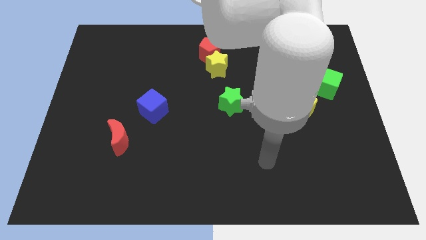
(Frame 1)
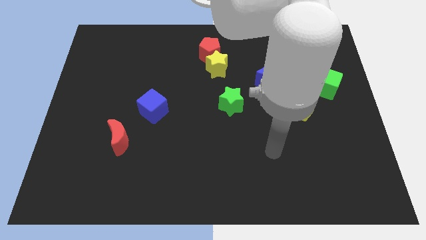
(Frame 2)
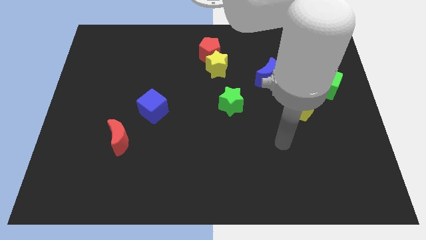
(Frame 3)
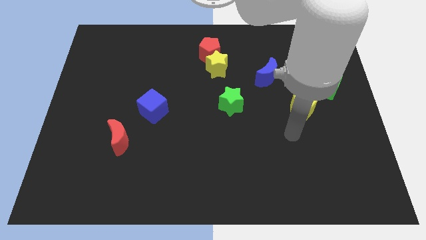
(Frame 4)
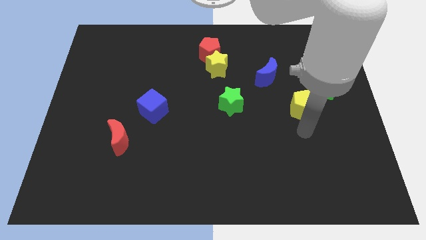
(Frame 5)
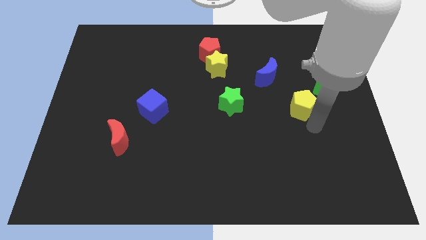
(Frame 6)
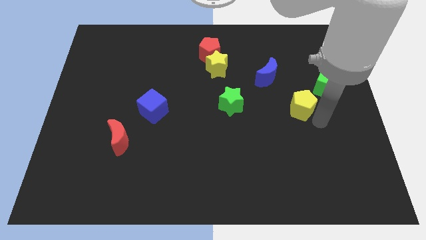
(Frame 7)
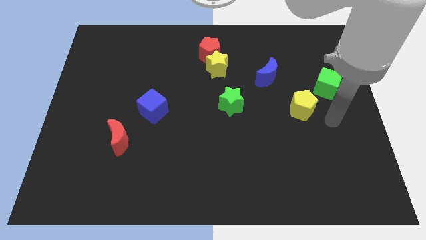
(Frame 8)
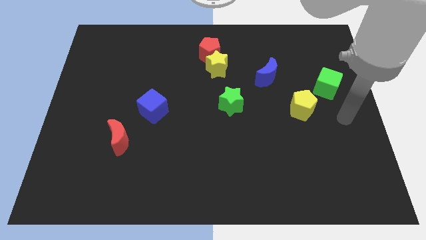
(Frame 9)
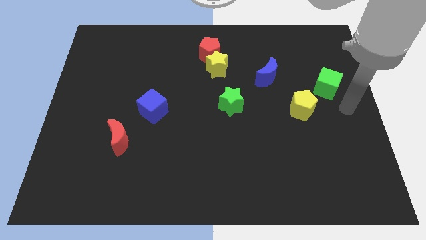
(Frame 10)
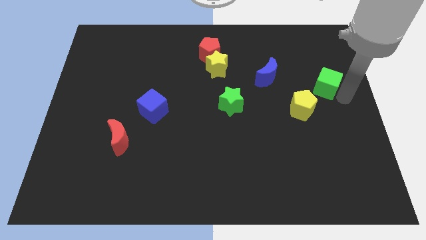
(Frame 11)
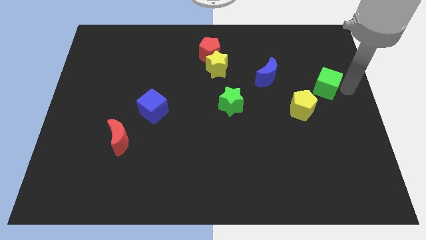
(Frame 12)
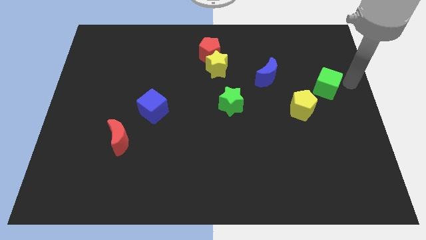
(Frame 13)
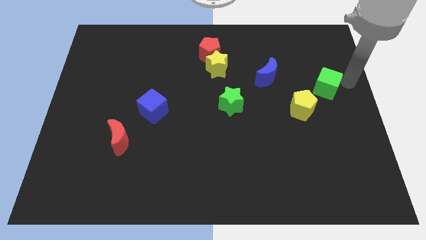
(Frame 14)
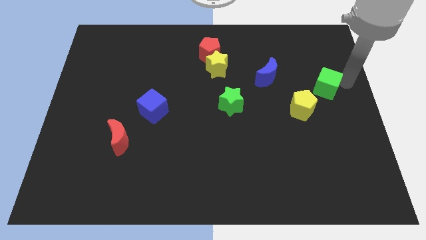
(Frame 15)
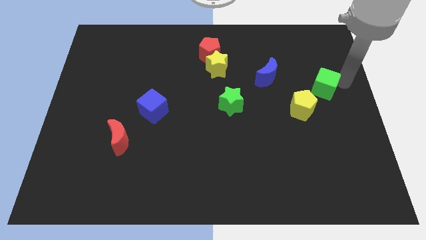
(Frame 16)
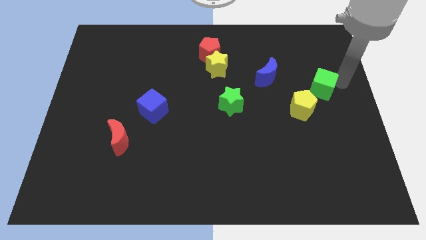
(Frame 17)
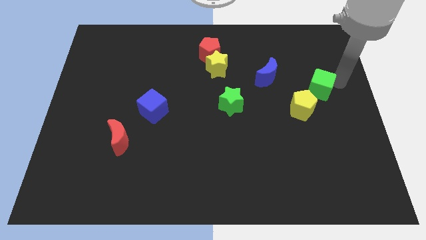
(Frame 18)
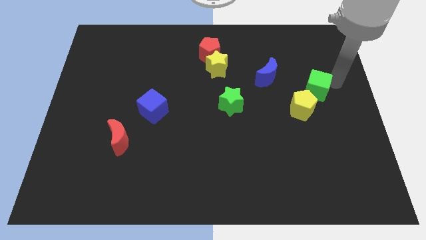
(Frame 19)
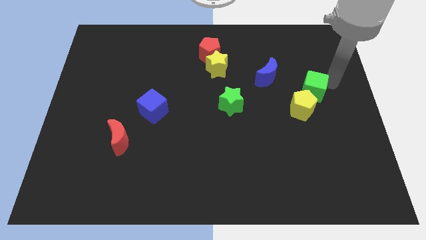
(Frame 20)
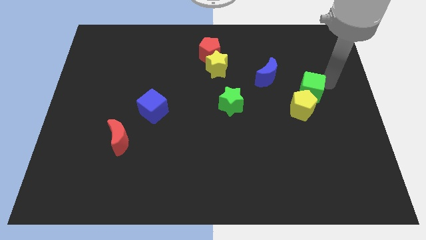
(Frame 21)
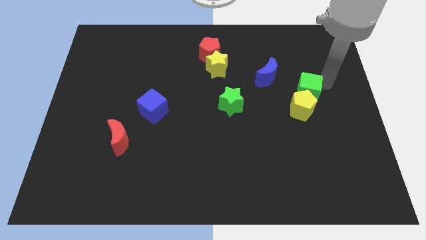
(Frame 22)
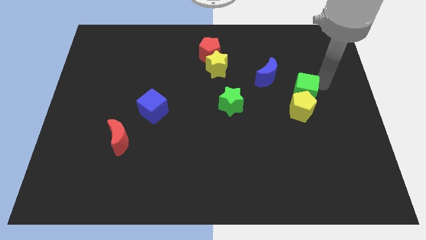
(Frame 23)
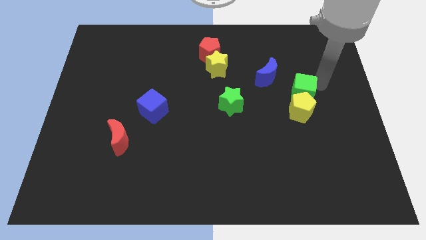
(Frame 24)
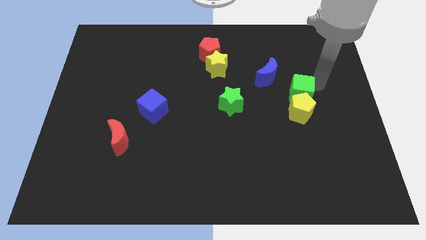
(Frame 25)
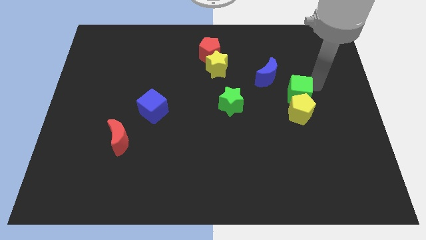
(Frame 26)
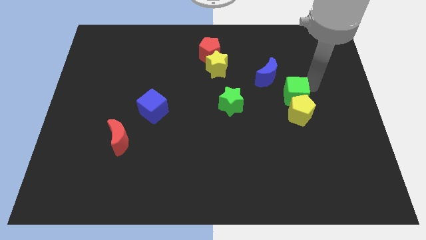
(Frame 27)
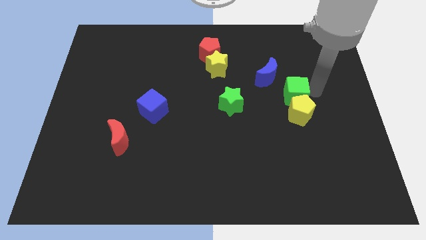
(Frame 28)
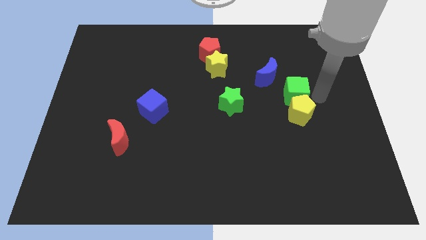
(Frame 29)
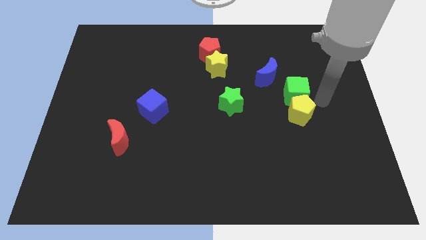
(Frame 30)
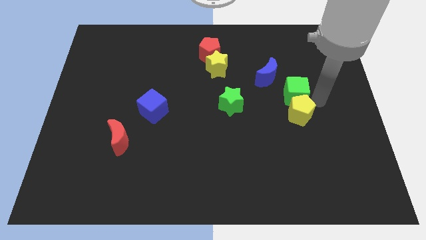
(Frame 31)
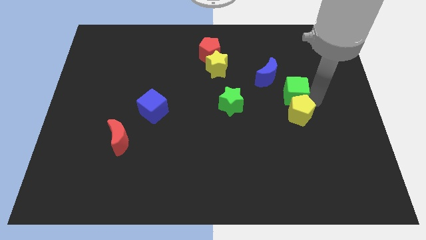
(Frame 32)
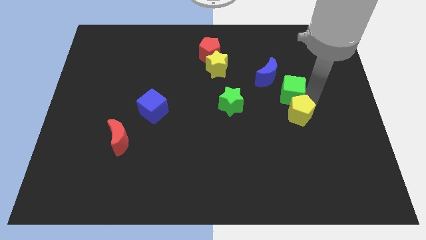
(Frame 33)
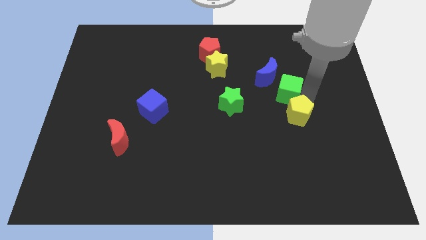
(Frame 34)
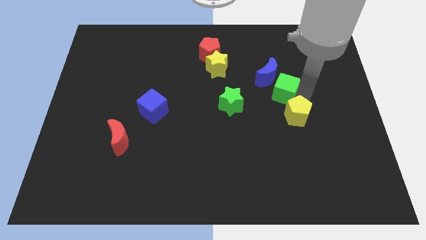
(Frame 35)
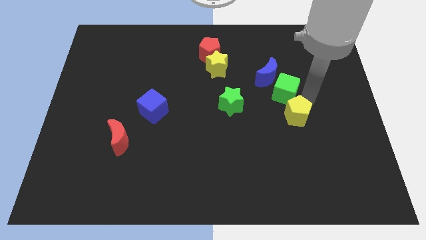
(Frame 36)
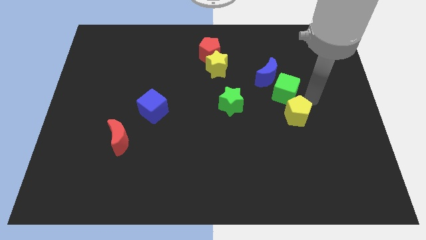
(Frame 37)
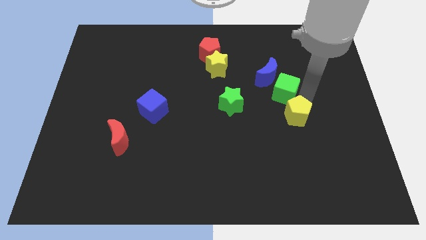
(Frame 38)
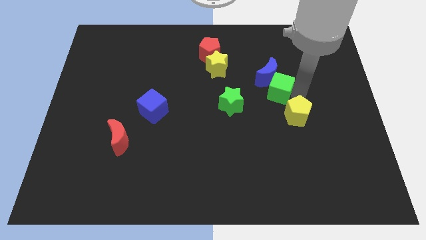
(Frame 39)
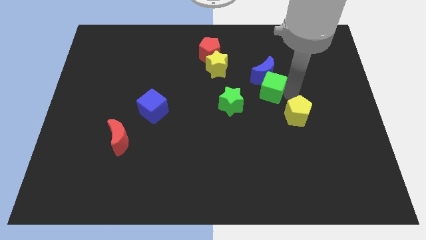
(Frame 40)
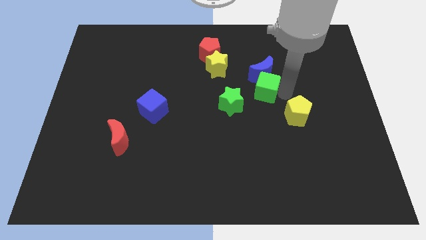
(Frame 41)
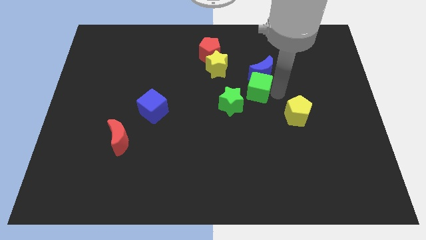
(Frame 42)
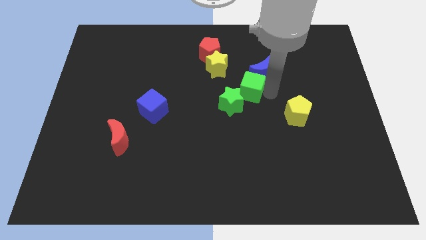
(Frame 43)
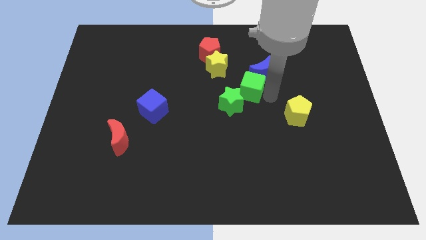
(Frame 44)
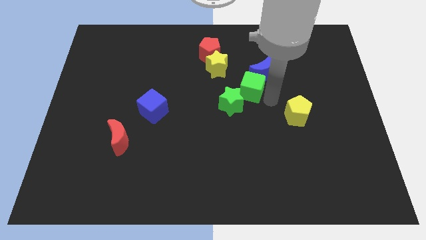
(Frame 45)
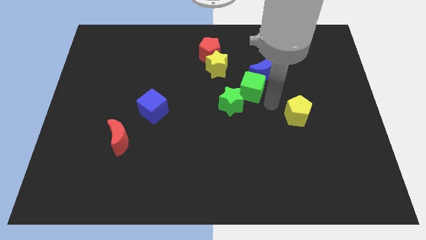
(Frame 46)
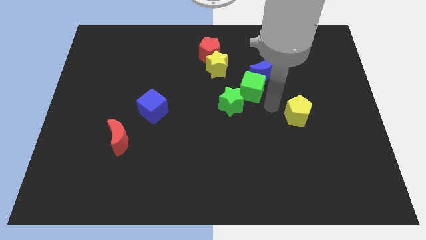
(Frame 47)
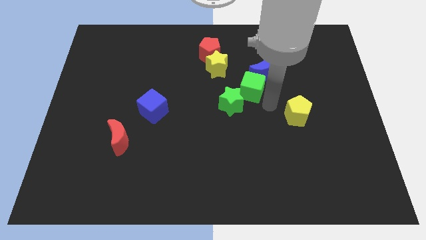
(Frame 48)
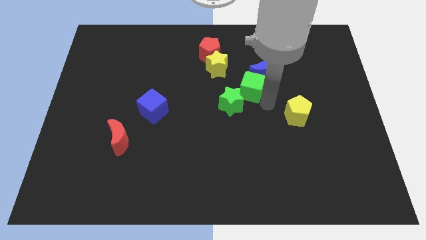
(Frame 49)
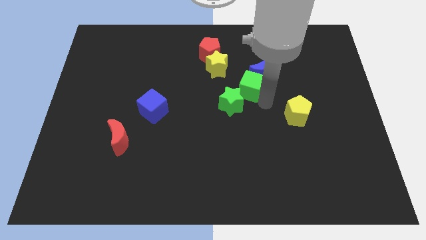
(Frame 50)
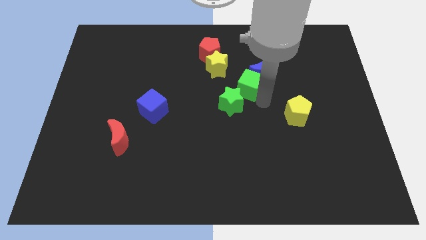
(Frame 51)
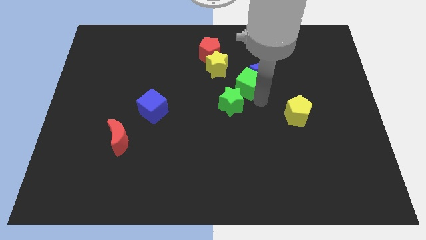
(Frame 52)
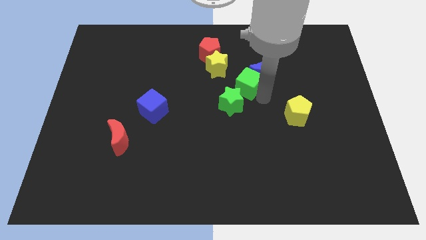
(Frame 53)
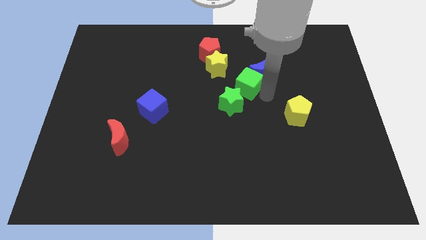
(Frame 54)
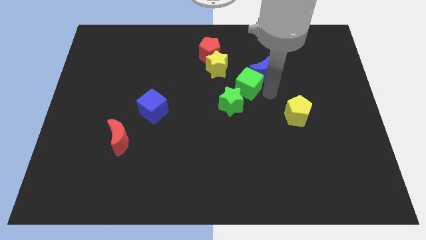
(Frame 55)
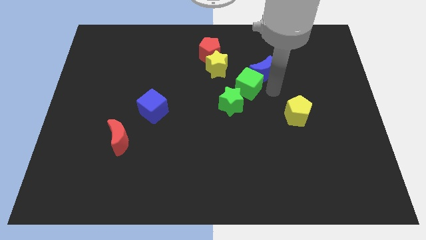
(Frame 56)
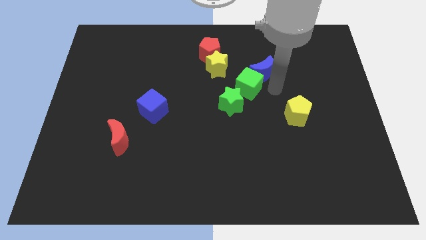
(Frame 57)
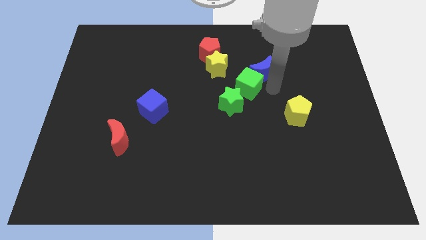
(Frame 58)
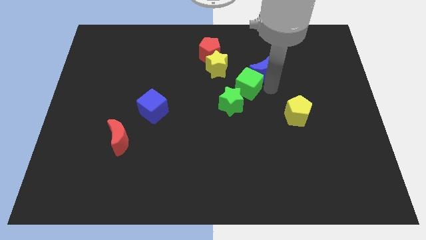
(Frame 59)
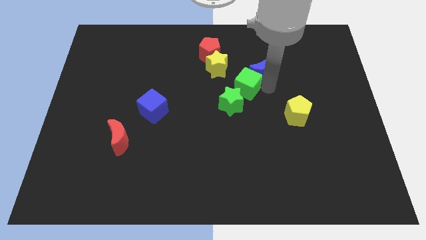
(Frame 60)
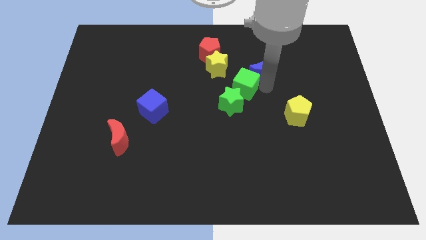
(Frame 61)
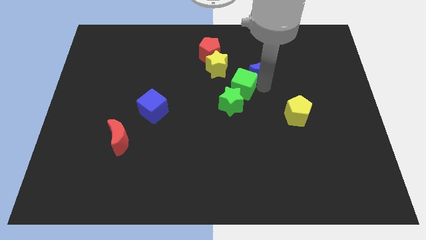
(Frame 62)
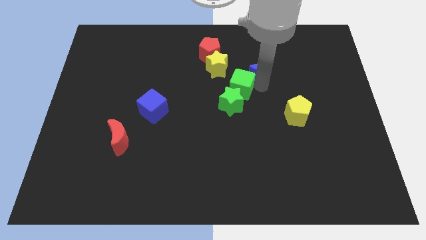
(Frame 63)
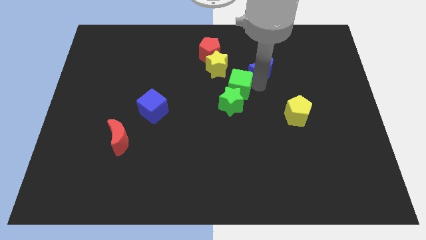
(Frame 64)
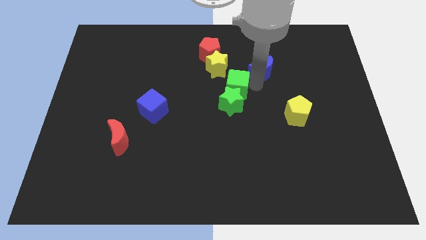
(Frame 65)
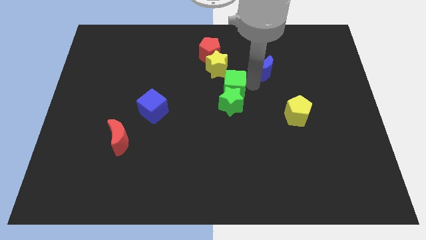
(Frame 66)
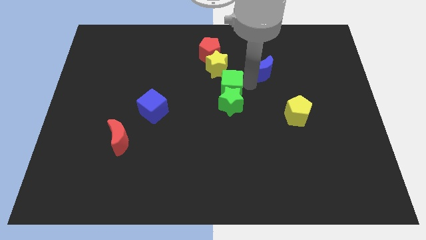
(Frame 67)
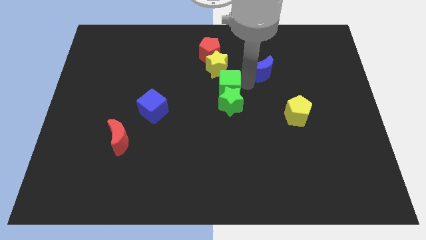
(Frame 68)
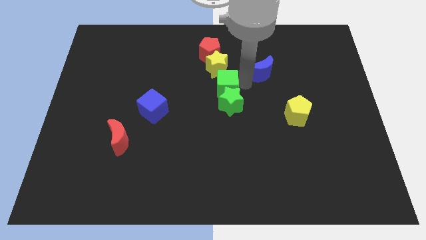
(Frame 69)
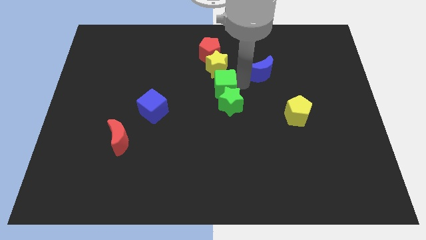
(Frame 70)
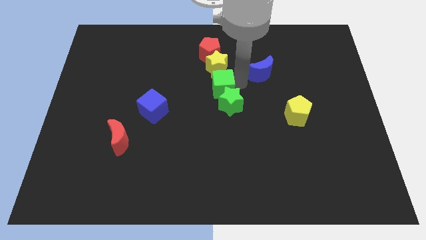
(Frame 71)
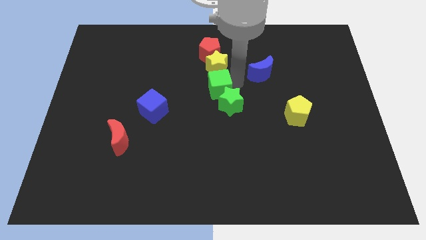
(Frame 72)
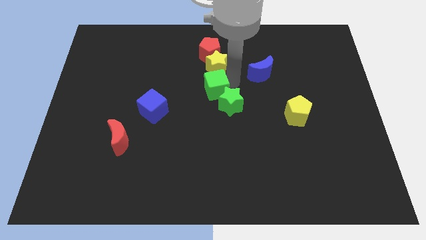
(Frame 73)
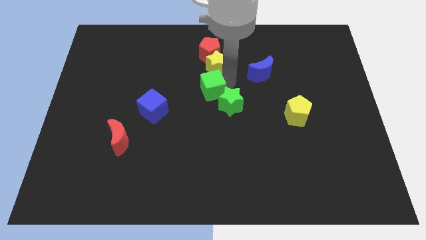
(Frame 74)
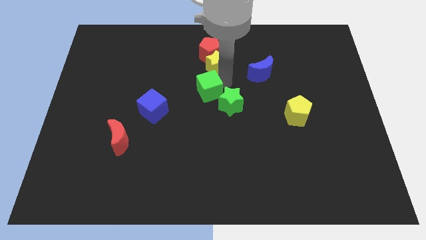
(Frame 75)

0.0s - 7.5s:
put the green cube to the left side of the green star
